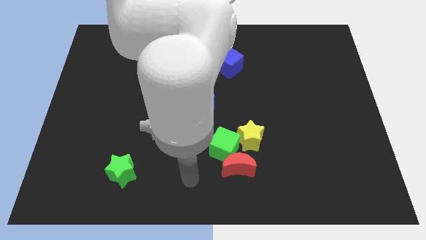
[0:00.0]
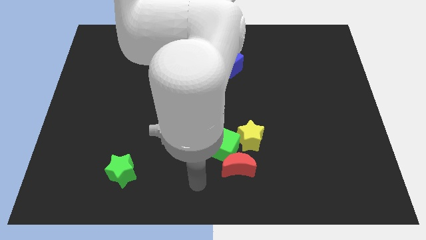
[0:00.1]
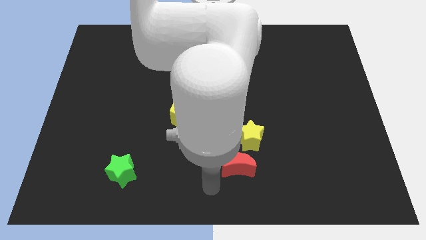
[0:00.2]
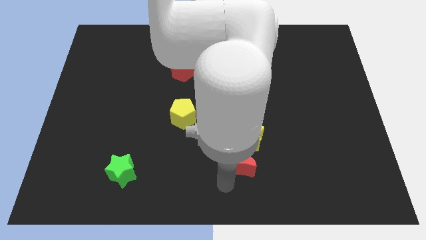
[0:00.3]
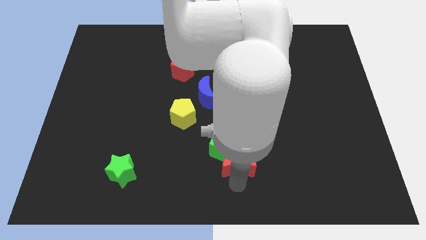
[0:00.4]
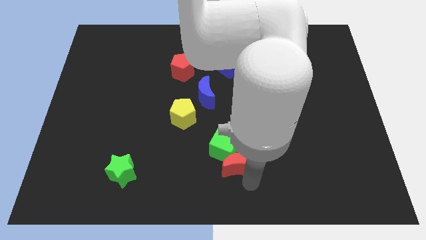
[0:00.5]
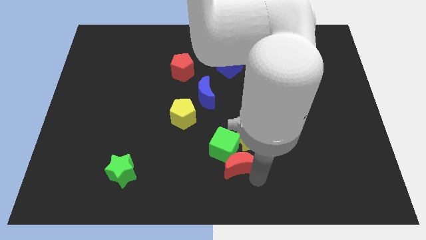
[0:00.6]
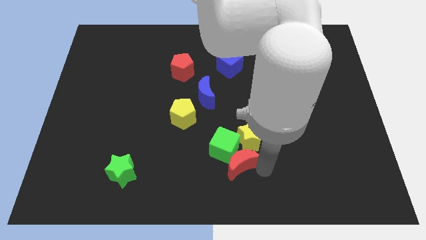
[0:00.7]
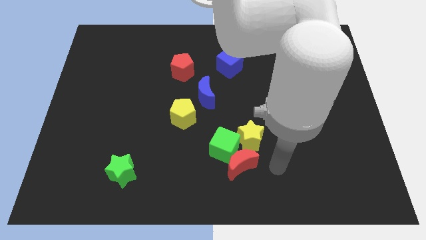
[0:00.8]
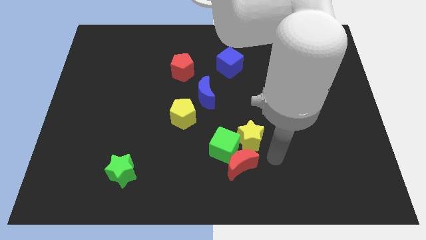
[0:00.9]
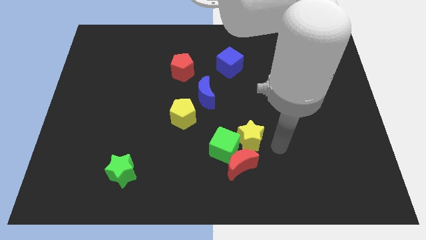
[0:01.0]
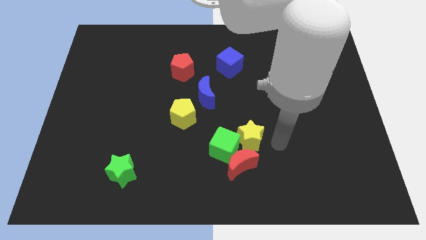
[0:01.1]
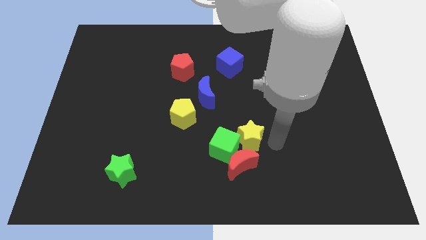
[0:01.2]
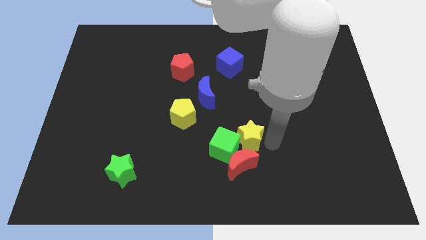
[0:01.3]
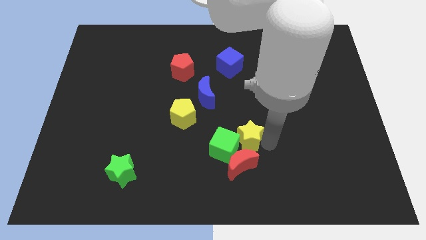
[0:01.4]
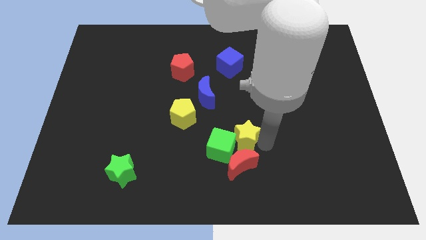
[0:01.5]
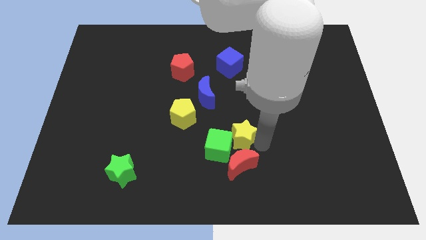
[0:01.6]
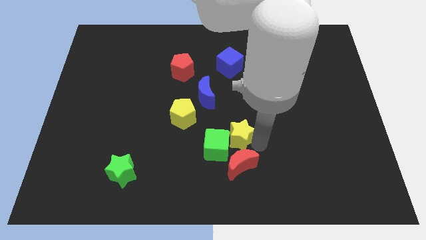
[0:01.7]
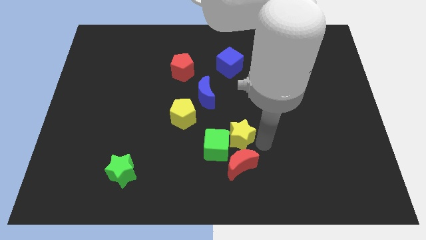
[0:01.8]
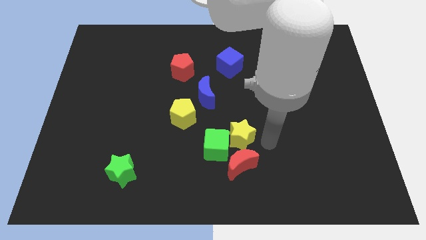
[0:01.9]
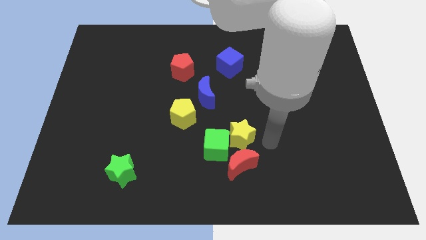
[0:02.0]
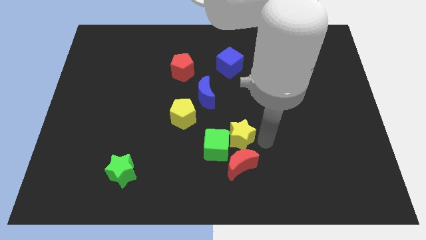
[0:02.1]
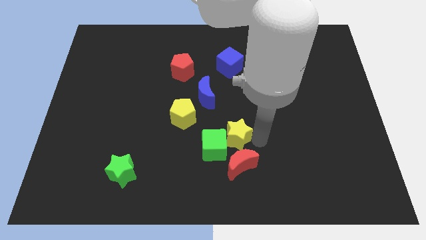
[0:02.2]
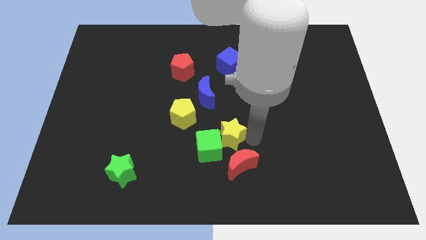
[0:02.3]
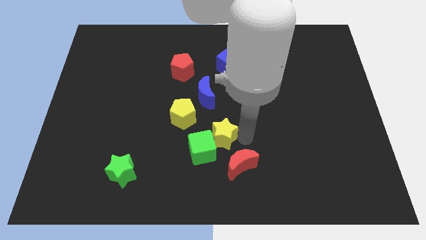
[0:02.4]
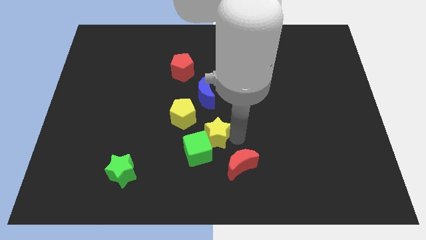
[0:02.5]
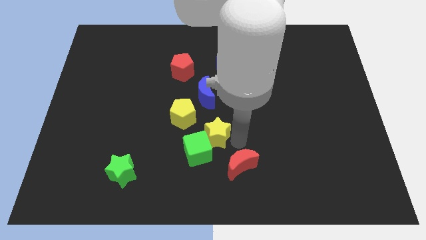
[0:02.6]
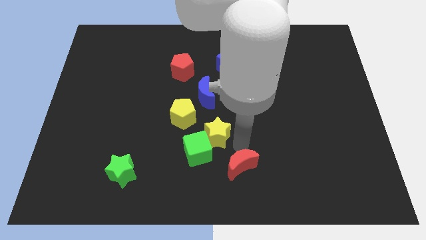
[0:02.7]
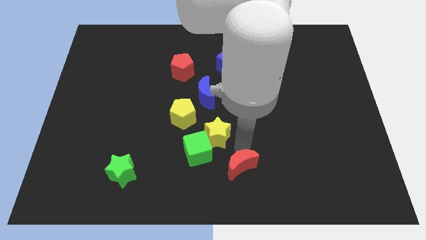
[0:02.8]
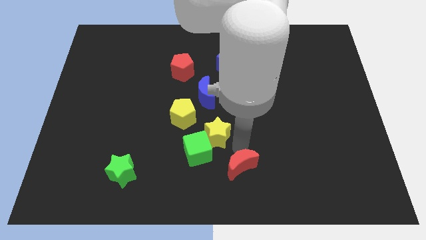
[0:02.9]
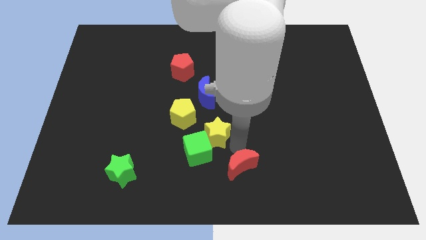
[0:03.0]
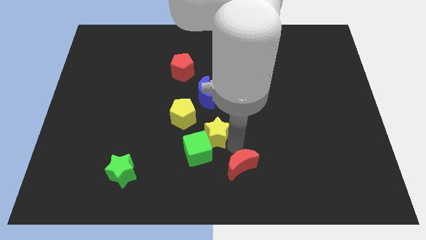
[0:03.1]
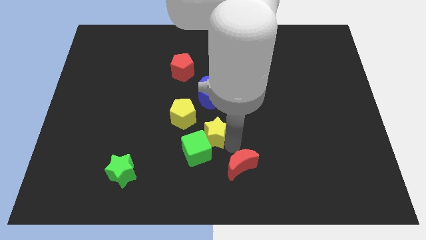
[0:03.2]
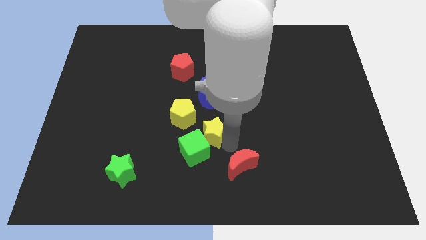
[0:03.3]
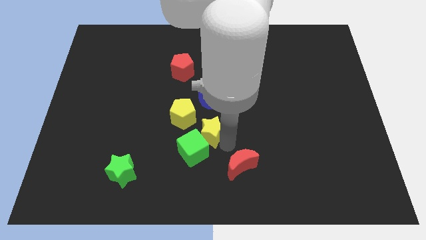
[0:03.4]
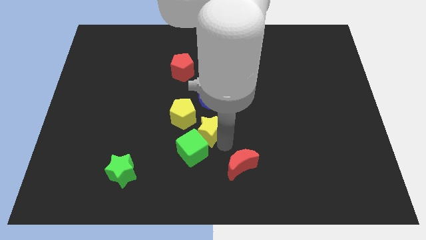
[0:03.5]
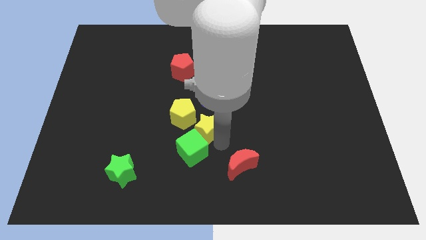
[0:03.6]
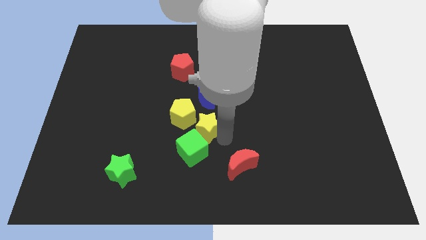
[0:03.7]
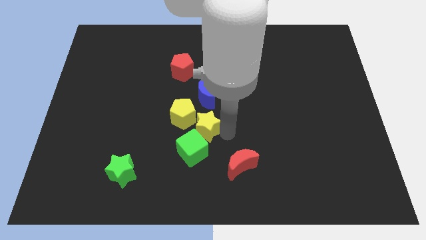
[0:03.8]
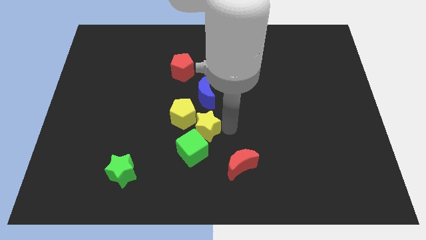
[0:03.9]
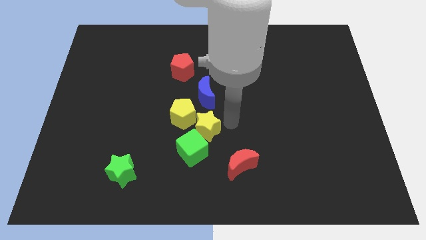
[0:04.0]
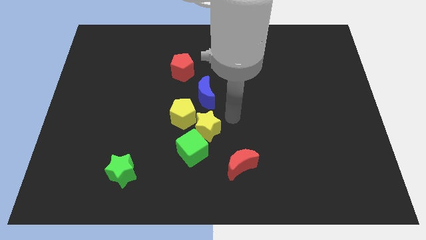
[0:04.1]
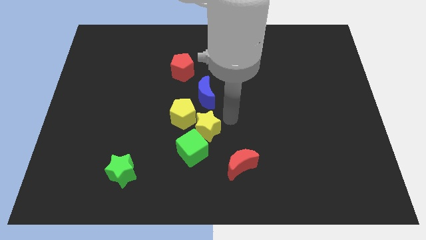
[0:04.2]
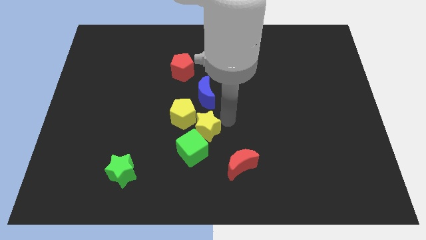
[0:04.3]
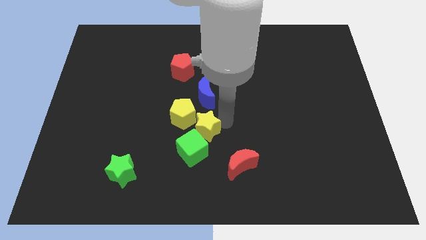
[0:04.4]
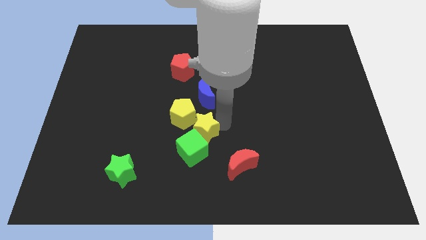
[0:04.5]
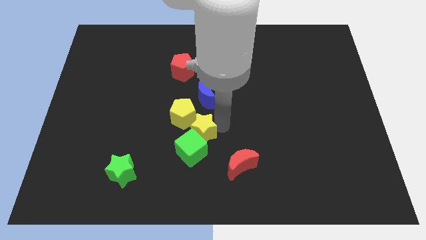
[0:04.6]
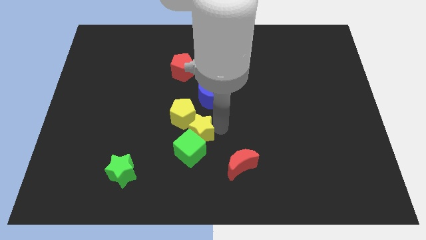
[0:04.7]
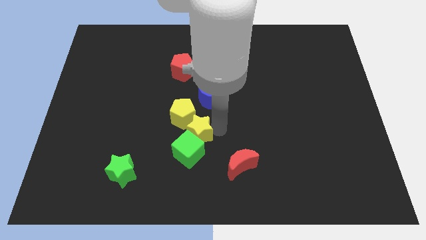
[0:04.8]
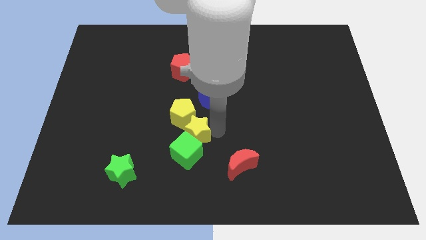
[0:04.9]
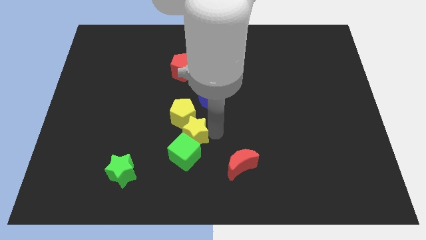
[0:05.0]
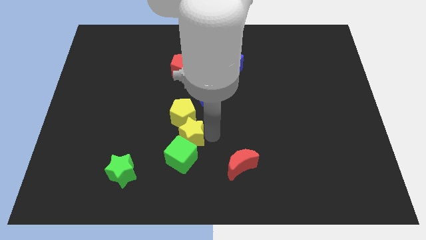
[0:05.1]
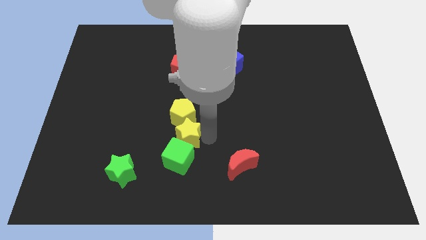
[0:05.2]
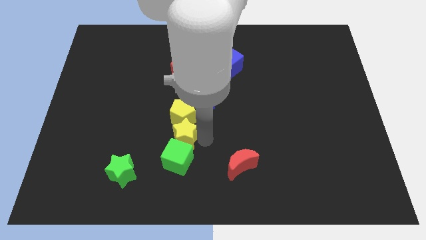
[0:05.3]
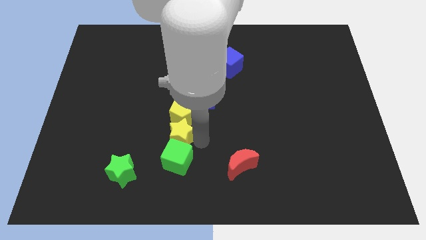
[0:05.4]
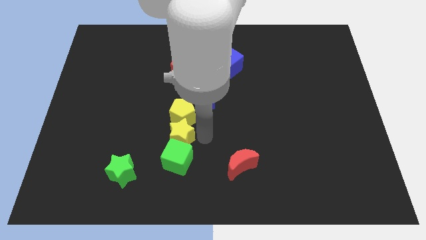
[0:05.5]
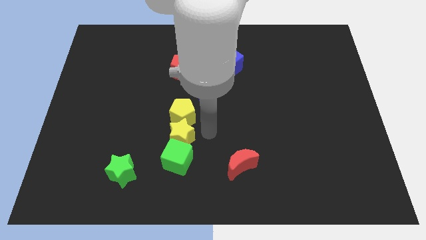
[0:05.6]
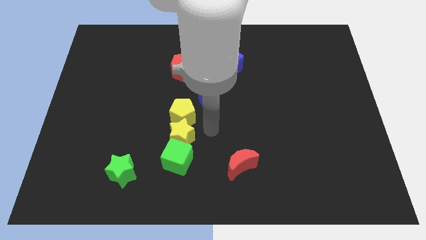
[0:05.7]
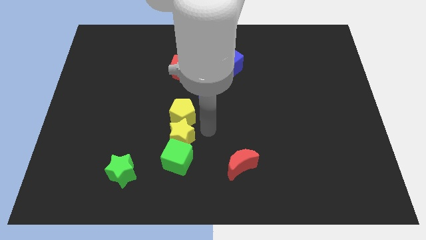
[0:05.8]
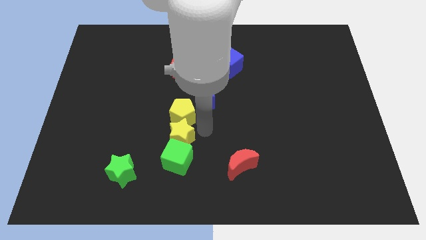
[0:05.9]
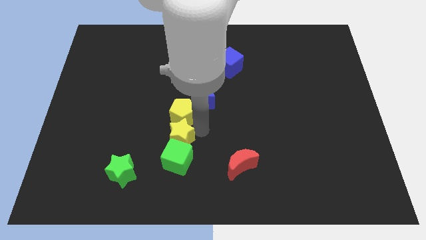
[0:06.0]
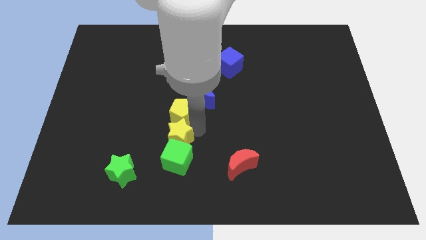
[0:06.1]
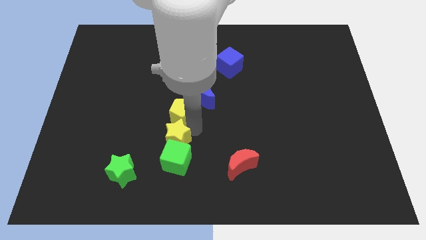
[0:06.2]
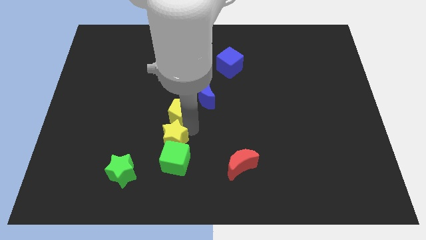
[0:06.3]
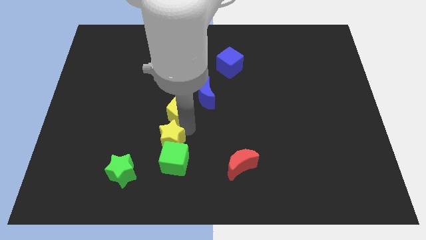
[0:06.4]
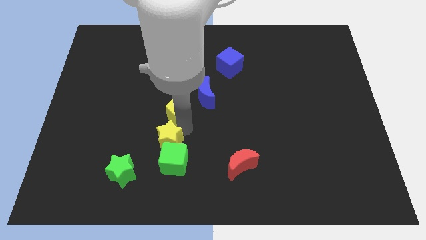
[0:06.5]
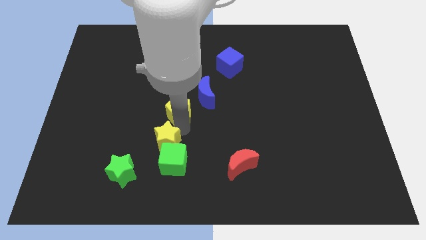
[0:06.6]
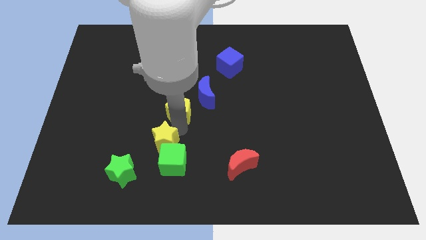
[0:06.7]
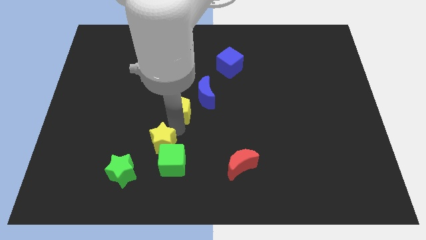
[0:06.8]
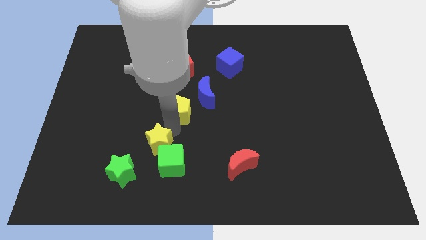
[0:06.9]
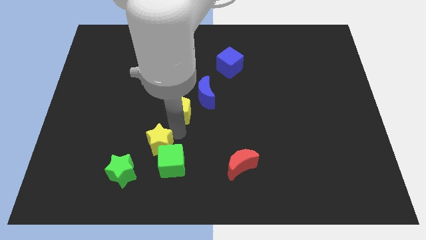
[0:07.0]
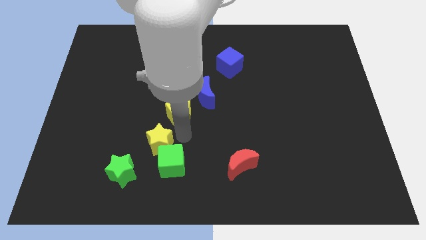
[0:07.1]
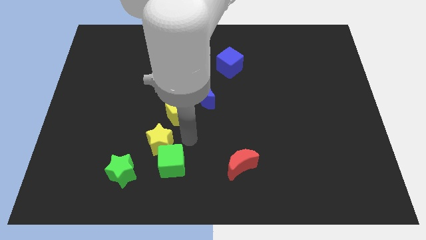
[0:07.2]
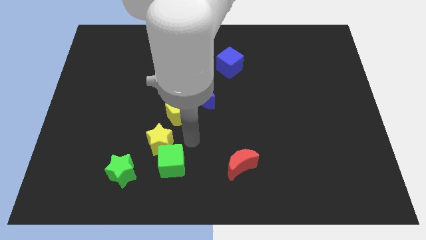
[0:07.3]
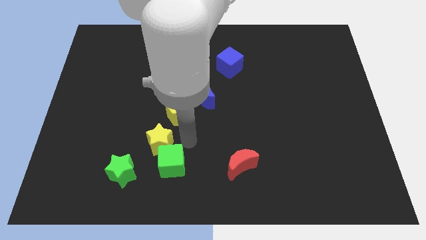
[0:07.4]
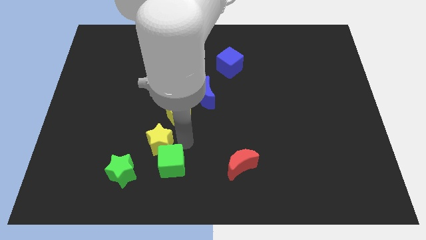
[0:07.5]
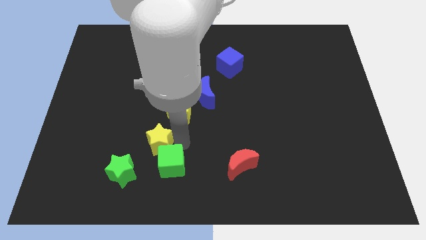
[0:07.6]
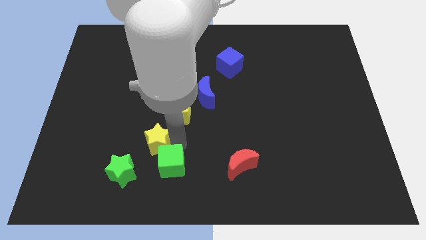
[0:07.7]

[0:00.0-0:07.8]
move the yellow star to the left

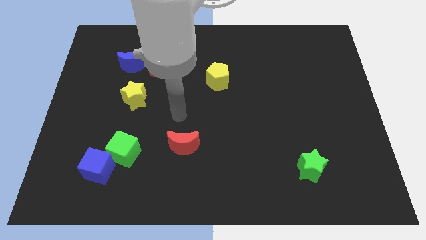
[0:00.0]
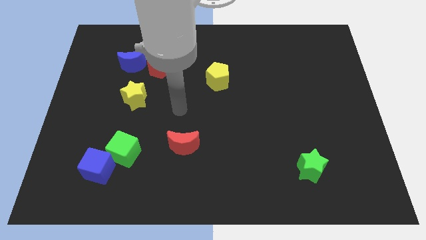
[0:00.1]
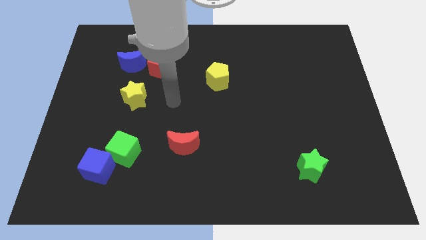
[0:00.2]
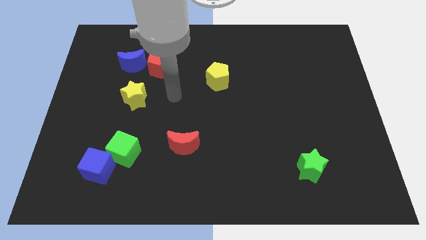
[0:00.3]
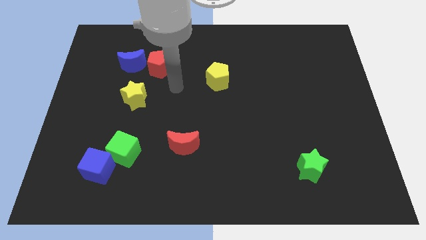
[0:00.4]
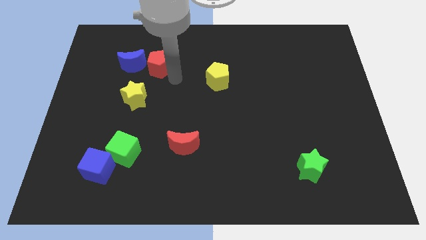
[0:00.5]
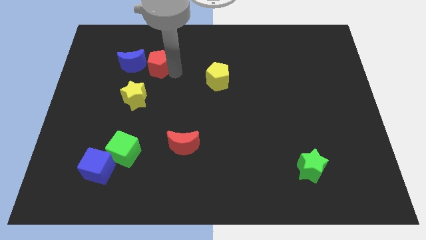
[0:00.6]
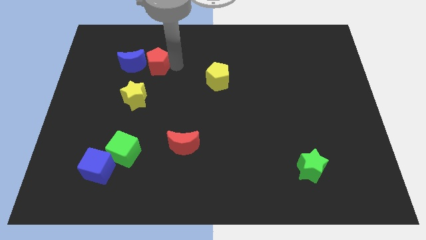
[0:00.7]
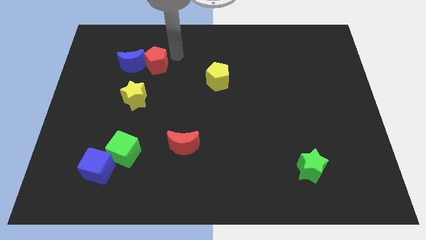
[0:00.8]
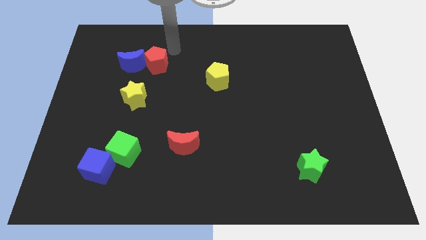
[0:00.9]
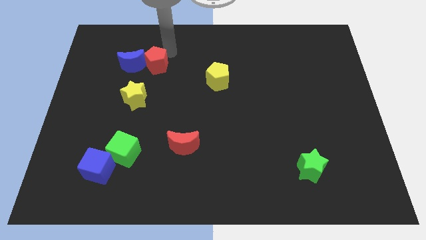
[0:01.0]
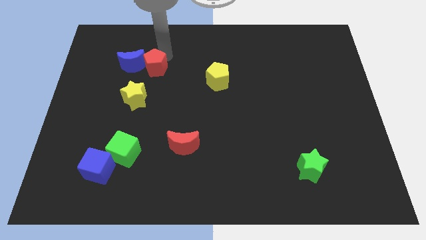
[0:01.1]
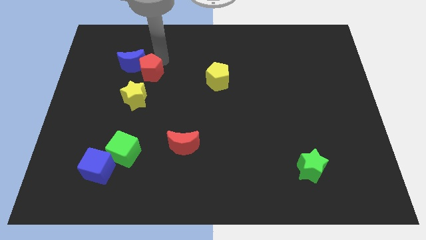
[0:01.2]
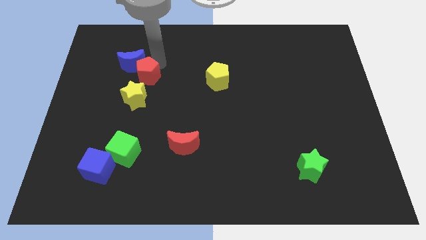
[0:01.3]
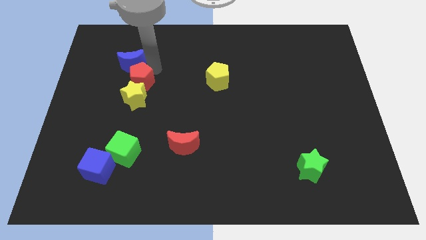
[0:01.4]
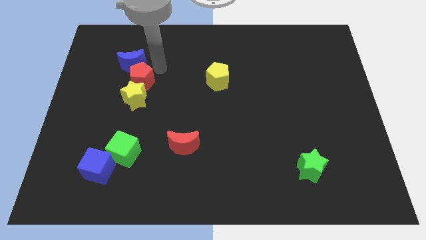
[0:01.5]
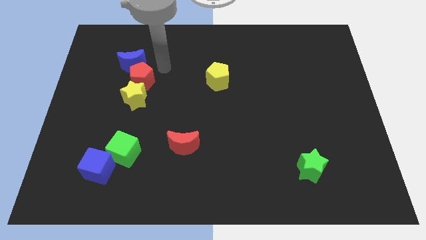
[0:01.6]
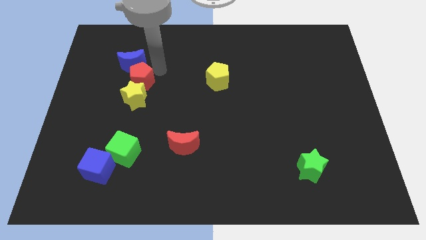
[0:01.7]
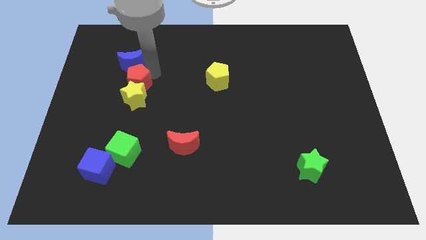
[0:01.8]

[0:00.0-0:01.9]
move the red pentagon downwards and then left a little
